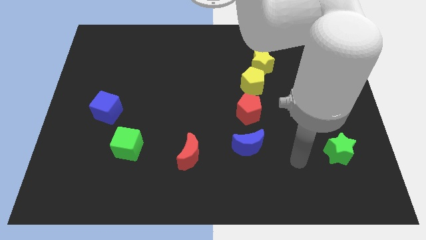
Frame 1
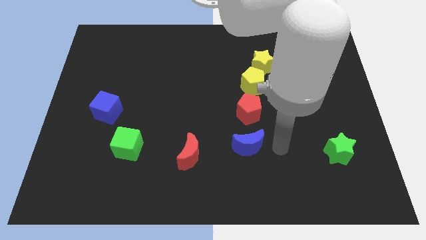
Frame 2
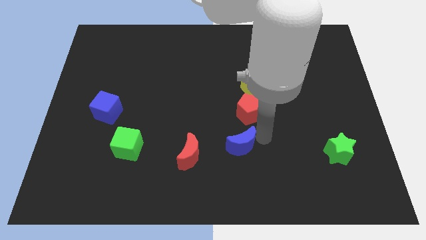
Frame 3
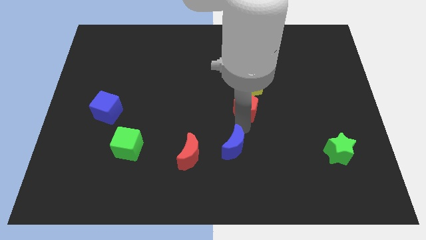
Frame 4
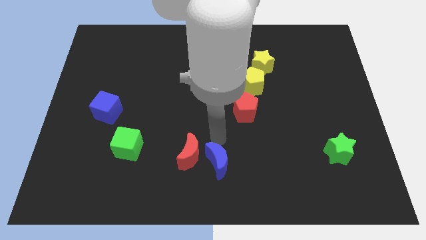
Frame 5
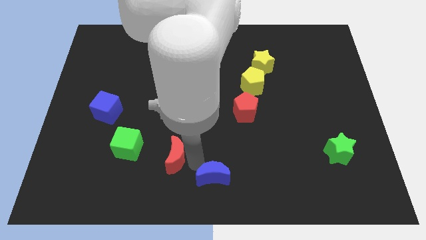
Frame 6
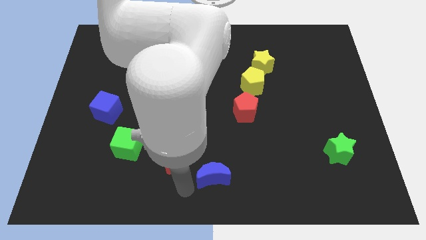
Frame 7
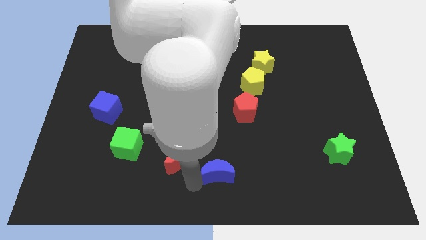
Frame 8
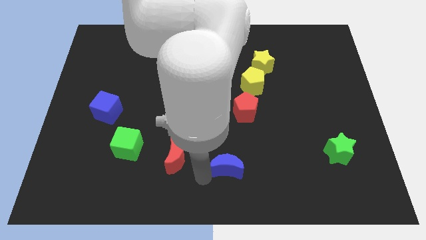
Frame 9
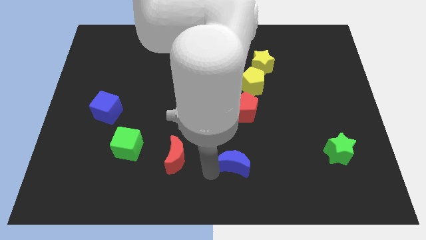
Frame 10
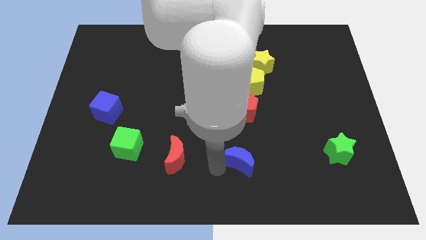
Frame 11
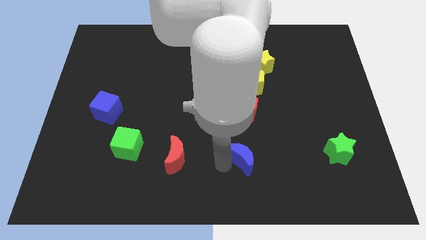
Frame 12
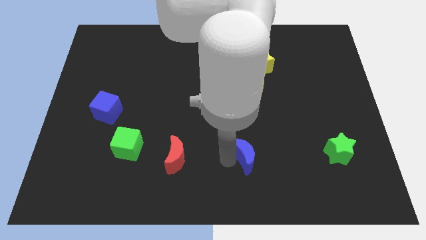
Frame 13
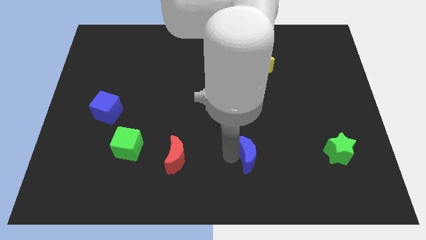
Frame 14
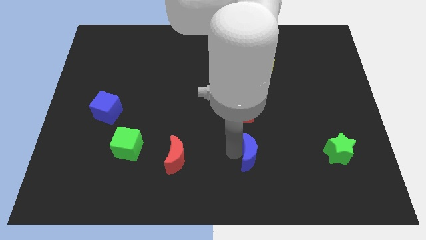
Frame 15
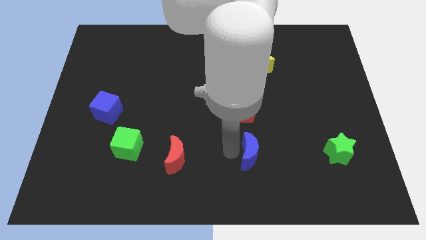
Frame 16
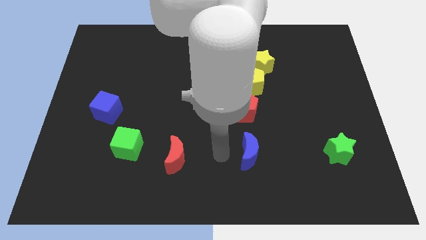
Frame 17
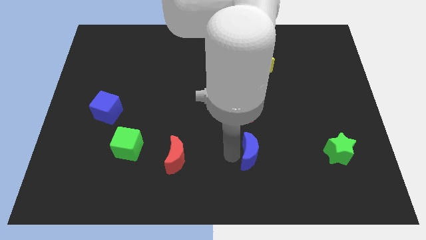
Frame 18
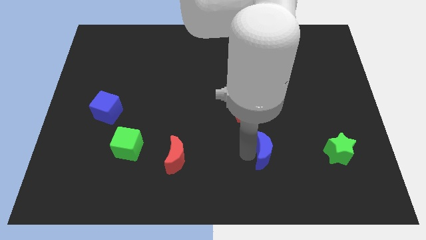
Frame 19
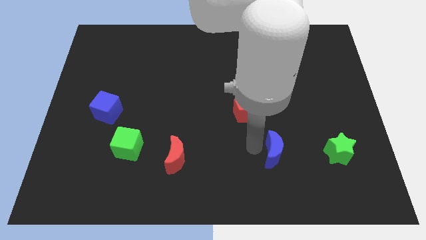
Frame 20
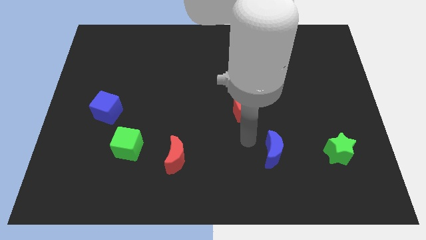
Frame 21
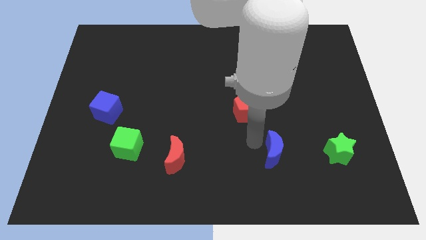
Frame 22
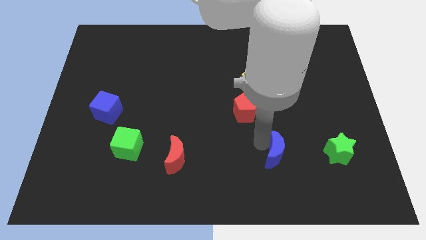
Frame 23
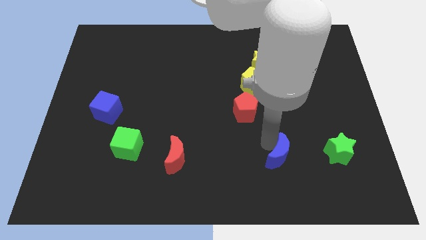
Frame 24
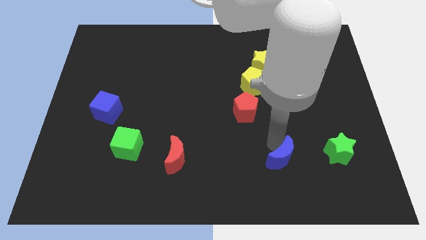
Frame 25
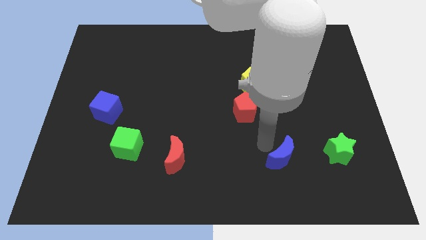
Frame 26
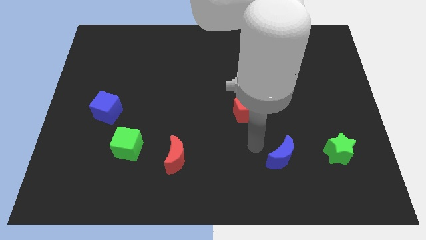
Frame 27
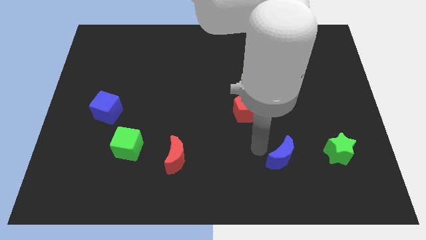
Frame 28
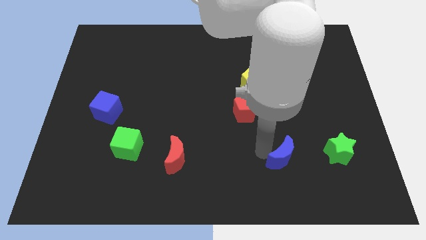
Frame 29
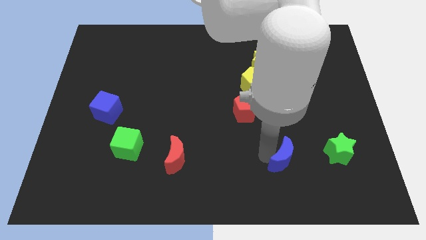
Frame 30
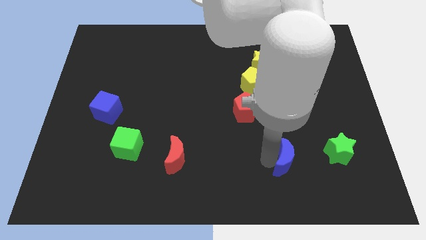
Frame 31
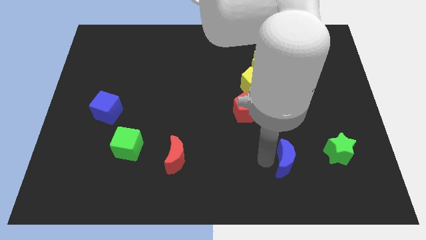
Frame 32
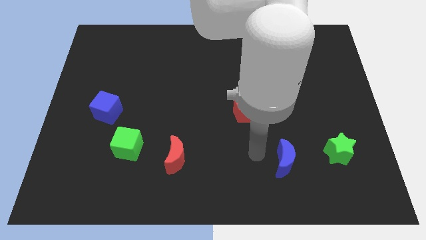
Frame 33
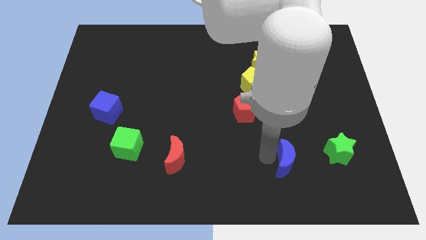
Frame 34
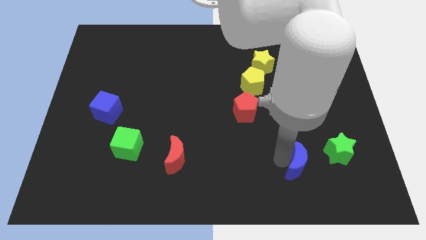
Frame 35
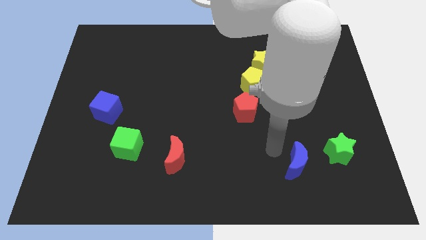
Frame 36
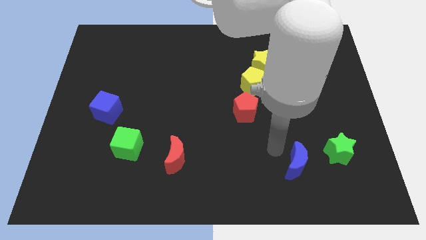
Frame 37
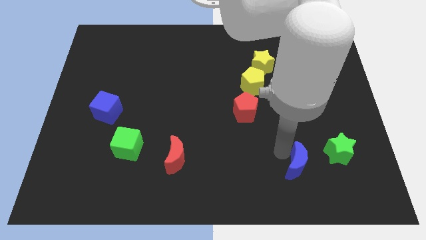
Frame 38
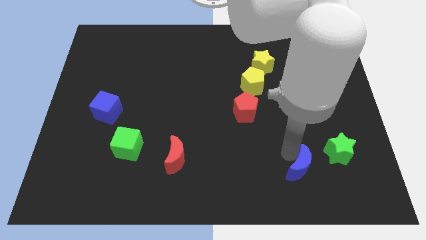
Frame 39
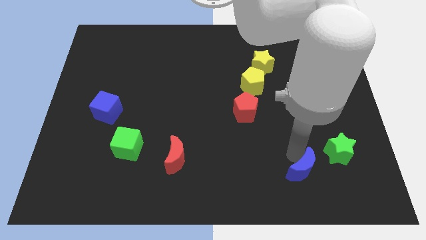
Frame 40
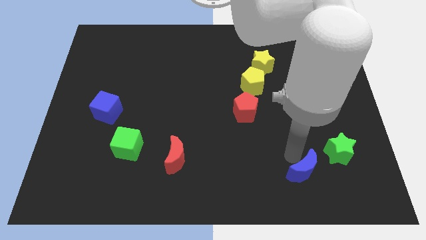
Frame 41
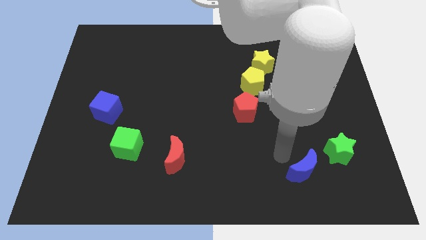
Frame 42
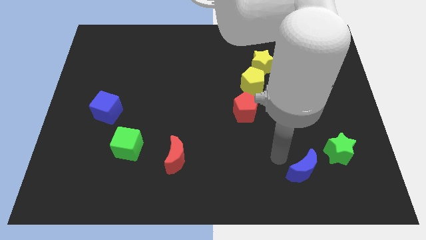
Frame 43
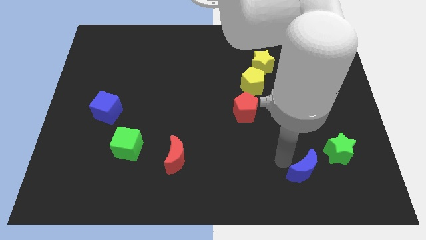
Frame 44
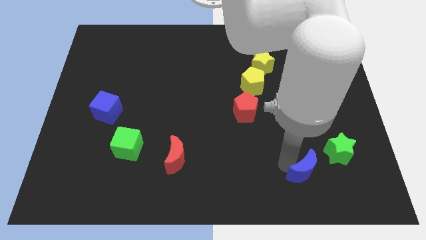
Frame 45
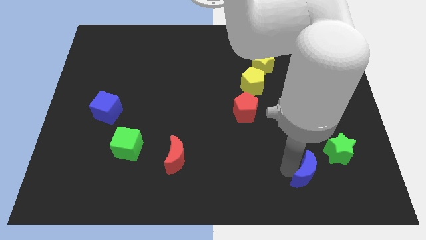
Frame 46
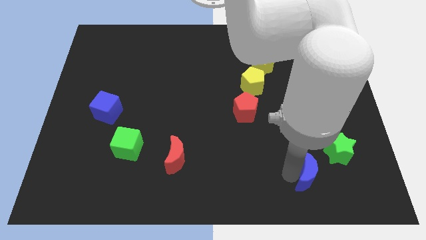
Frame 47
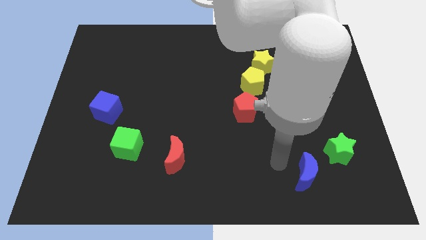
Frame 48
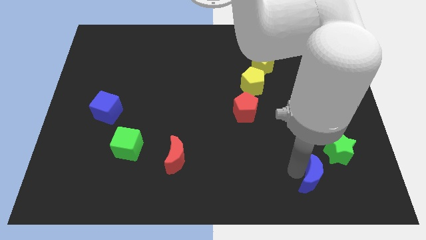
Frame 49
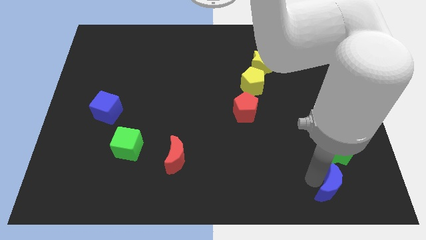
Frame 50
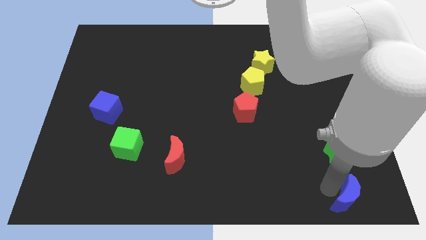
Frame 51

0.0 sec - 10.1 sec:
push the blue moon to the lower right corner

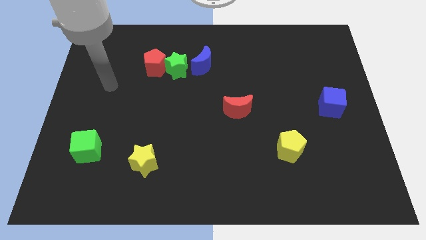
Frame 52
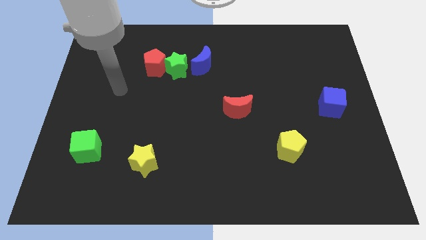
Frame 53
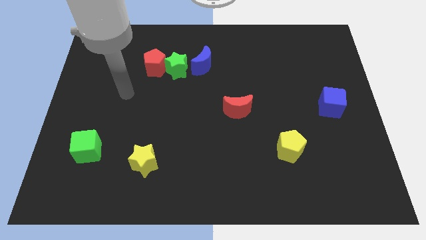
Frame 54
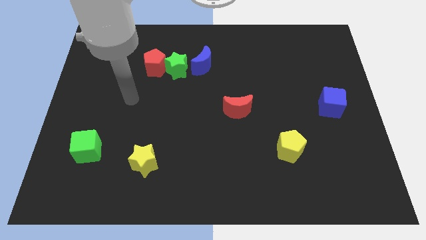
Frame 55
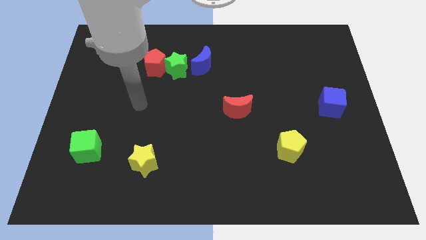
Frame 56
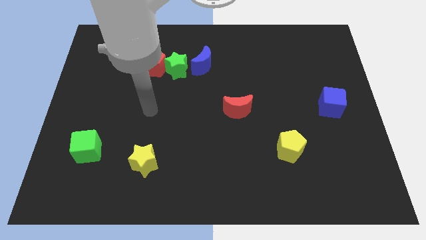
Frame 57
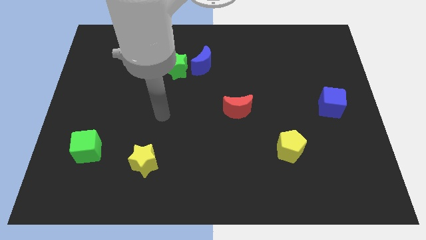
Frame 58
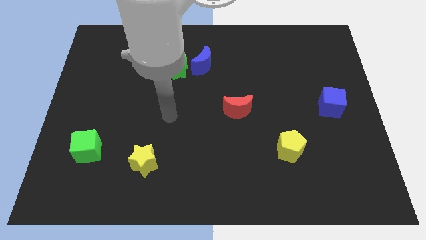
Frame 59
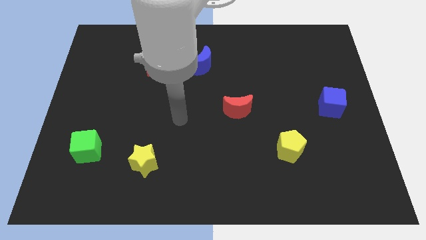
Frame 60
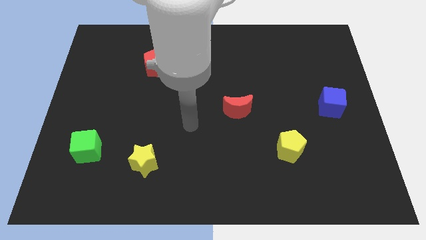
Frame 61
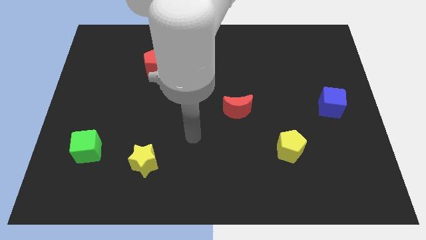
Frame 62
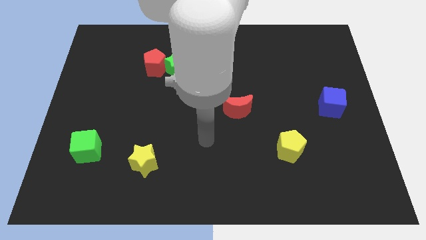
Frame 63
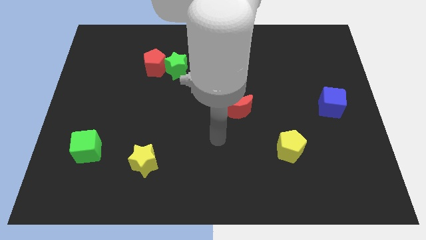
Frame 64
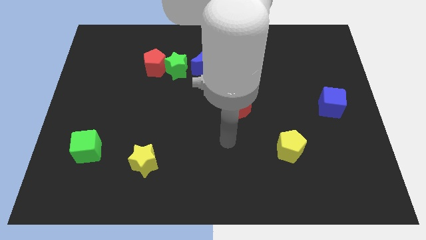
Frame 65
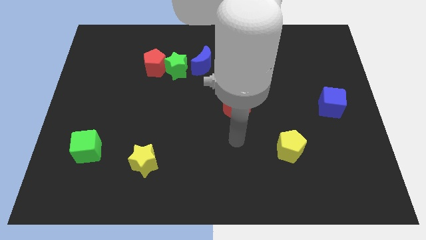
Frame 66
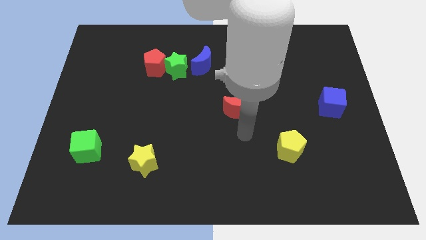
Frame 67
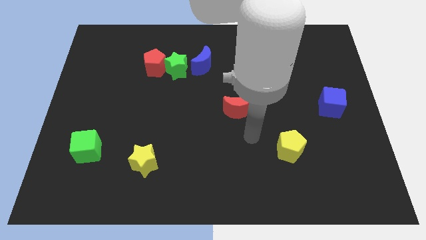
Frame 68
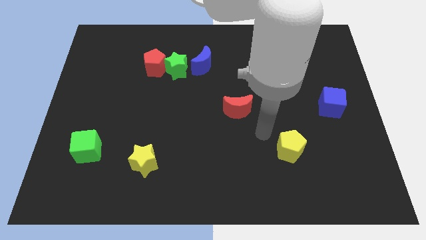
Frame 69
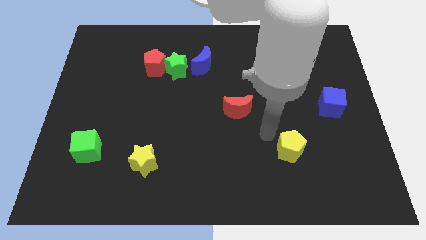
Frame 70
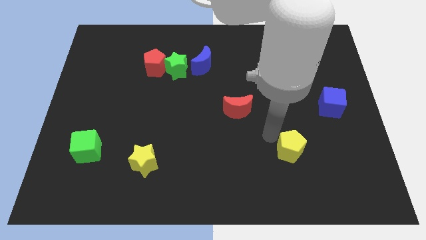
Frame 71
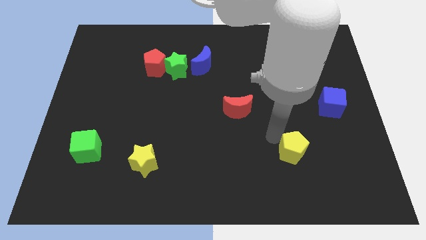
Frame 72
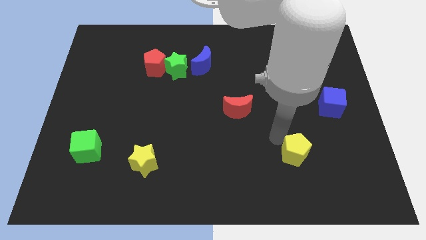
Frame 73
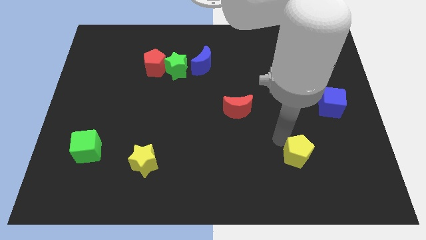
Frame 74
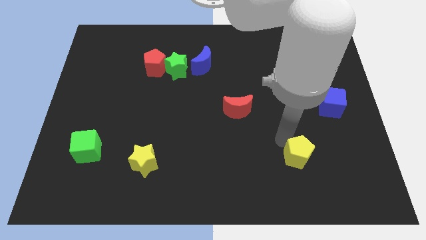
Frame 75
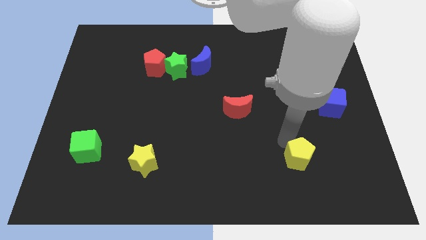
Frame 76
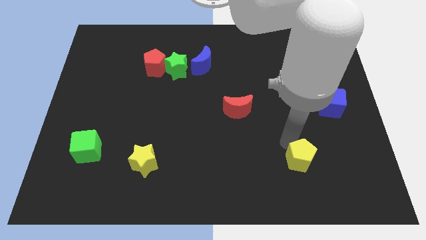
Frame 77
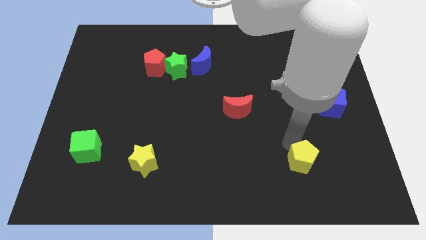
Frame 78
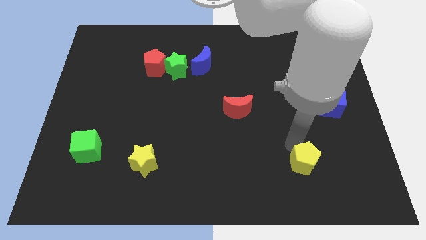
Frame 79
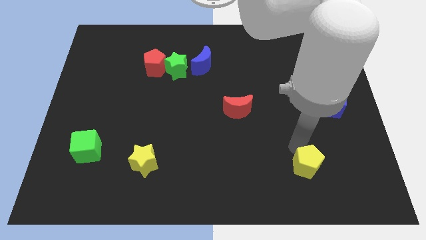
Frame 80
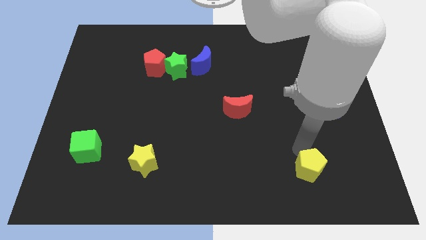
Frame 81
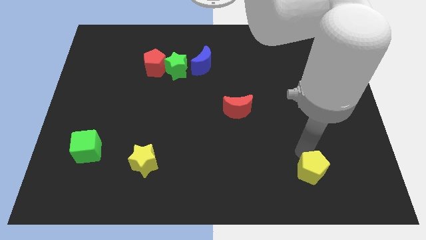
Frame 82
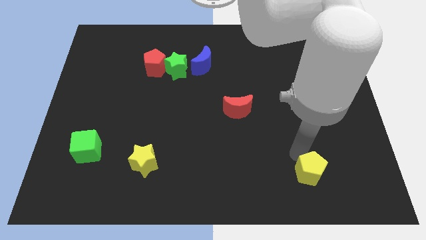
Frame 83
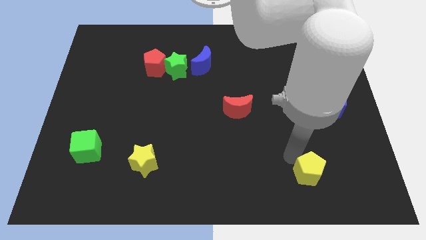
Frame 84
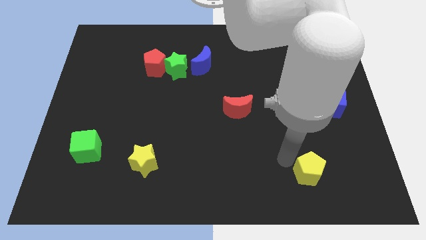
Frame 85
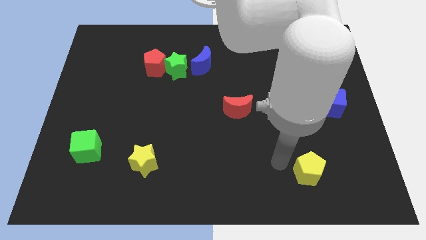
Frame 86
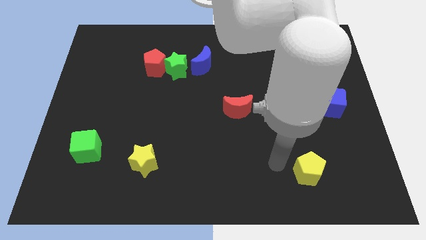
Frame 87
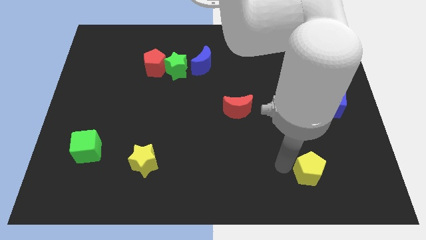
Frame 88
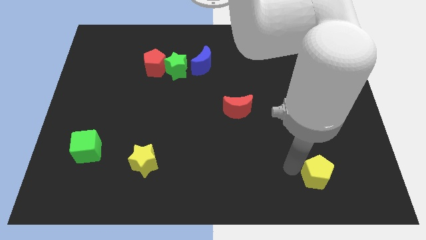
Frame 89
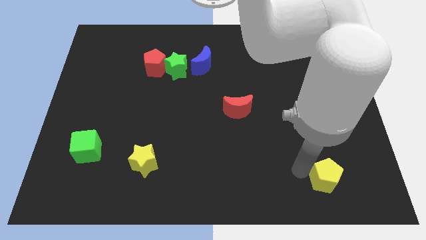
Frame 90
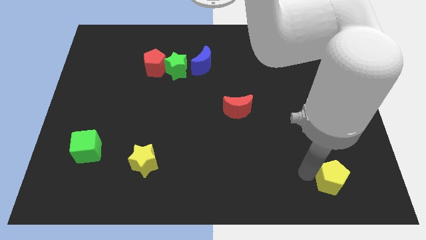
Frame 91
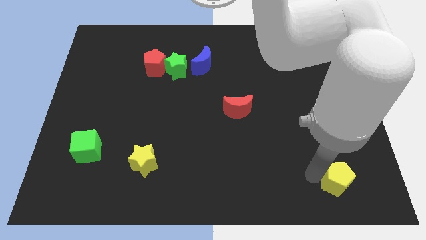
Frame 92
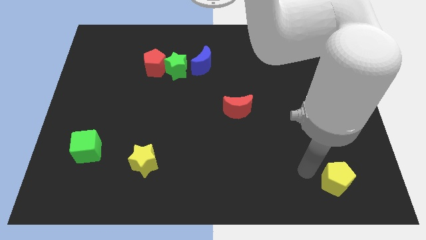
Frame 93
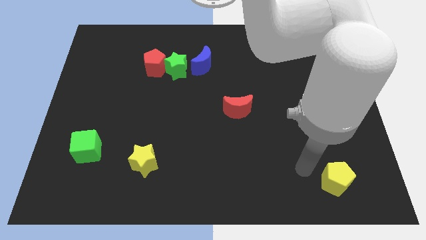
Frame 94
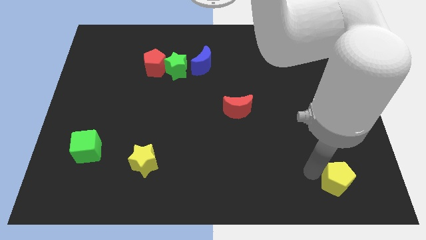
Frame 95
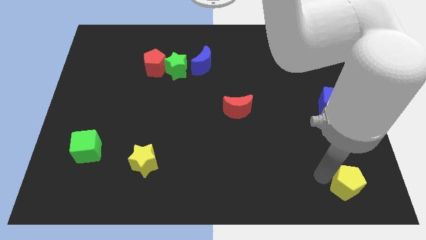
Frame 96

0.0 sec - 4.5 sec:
slide the yellow pentagon to the bottom right corner
